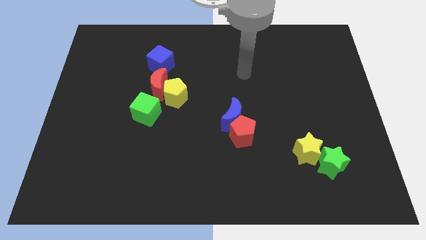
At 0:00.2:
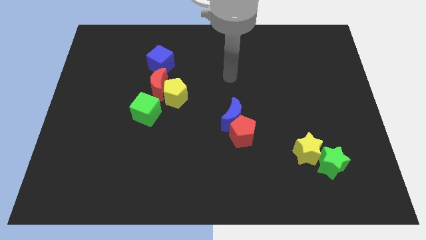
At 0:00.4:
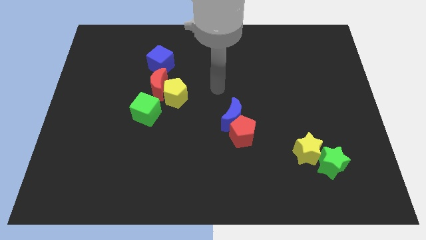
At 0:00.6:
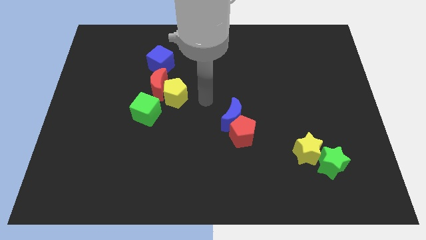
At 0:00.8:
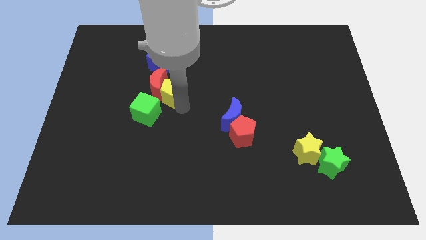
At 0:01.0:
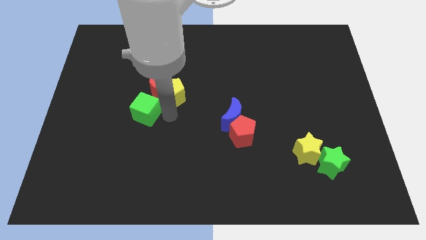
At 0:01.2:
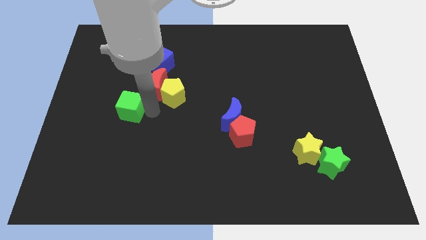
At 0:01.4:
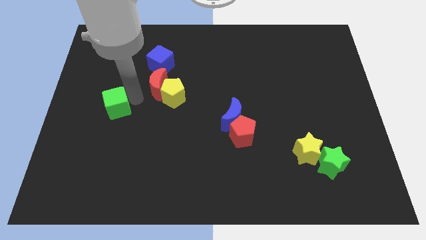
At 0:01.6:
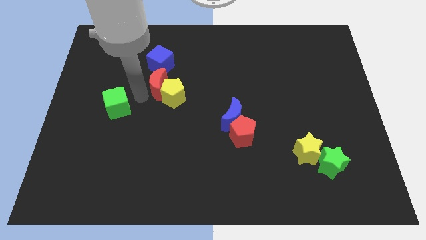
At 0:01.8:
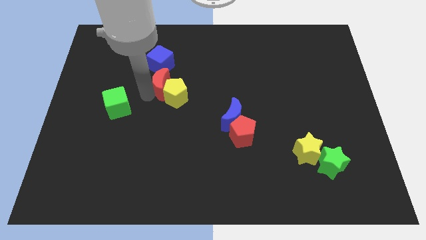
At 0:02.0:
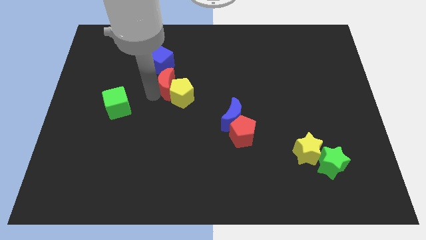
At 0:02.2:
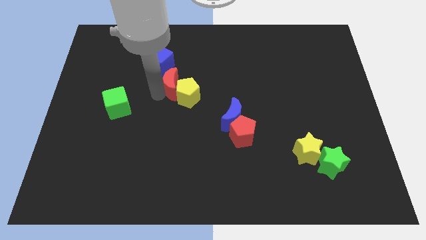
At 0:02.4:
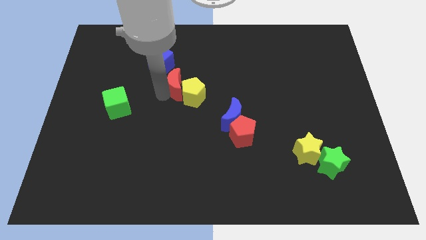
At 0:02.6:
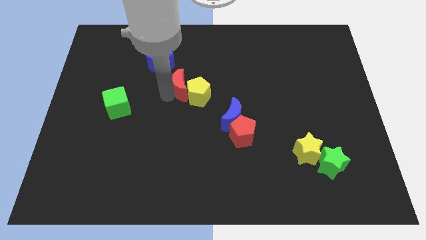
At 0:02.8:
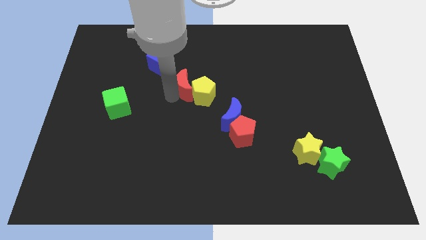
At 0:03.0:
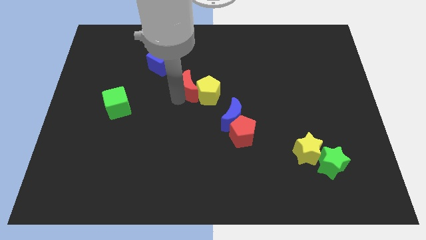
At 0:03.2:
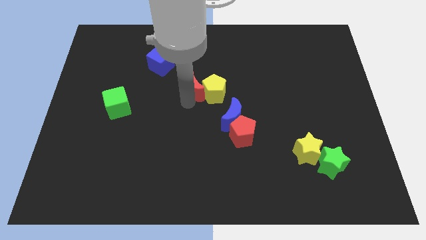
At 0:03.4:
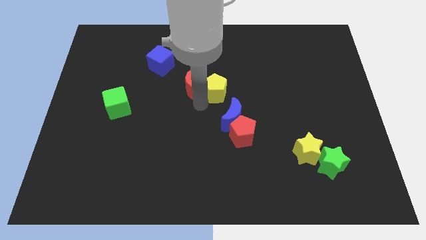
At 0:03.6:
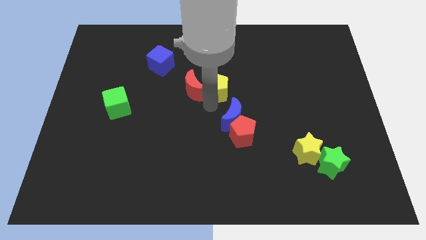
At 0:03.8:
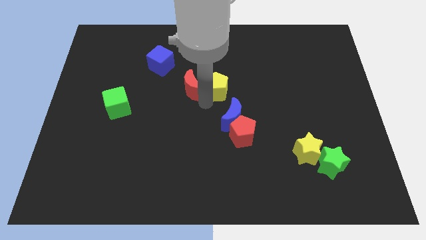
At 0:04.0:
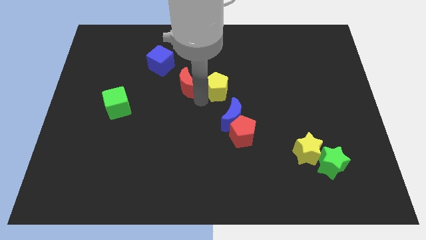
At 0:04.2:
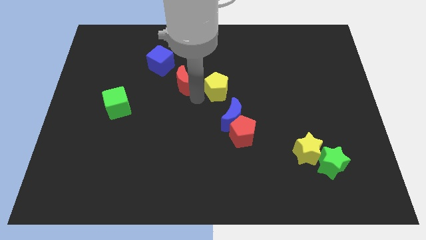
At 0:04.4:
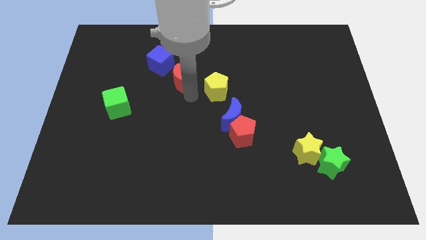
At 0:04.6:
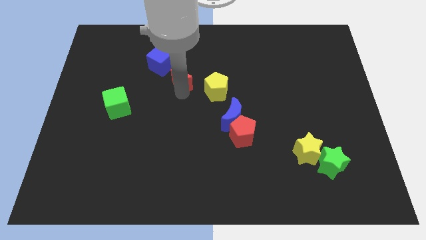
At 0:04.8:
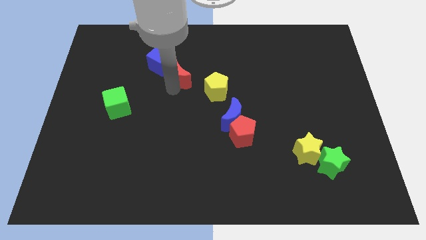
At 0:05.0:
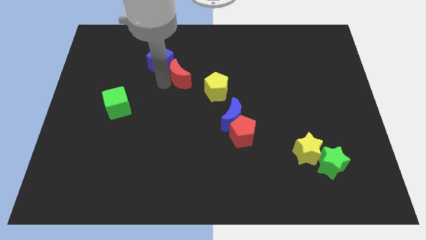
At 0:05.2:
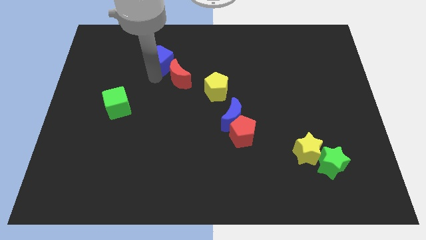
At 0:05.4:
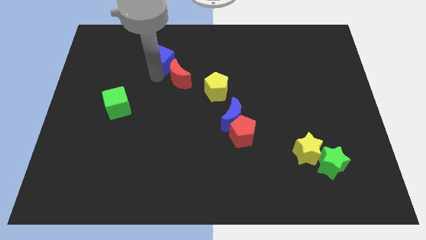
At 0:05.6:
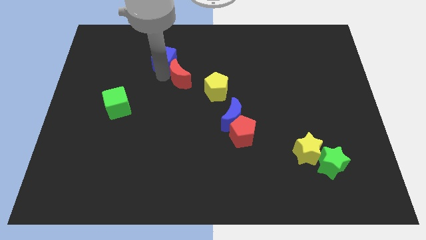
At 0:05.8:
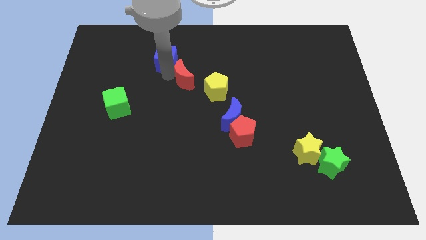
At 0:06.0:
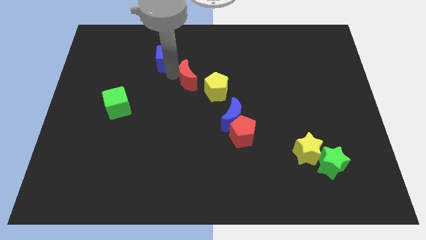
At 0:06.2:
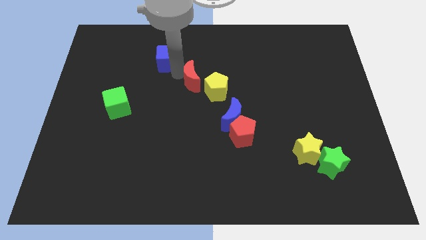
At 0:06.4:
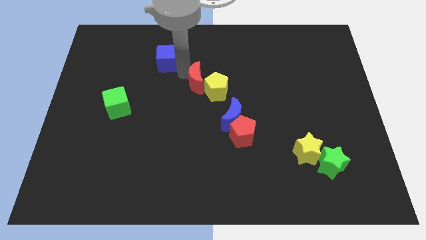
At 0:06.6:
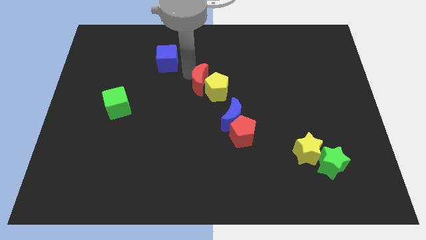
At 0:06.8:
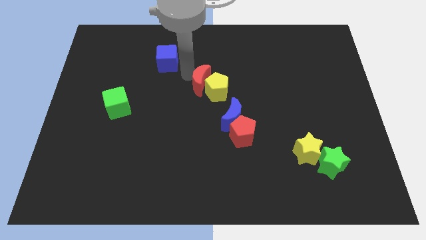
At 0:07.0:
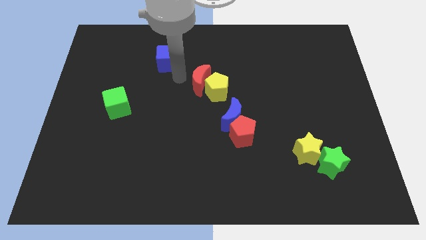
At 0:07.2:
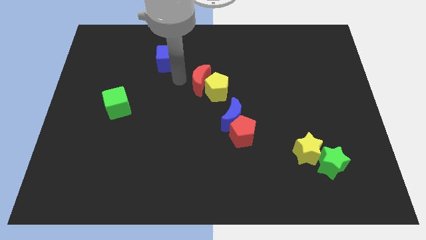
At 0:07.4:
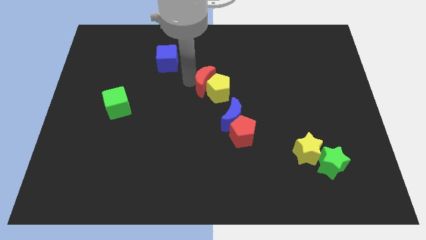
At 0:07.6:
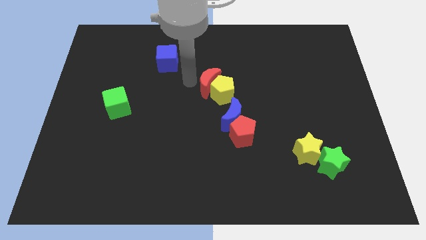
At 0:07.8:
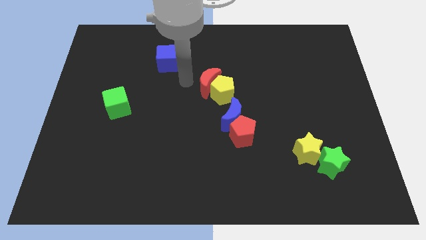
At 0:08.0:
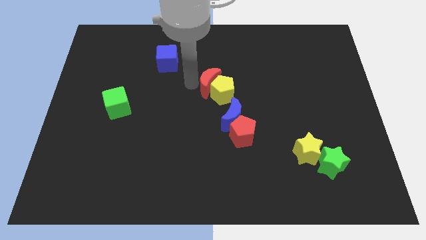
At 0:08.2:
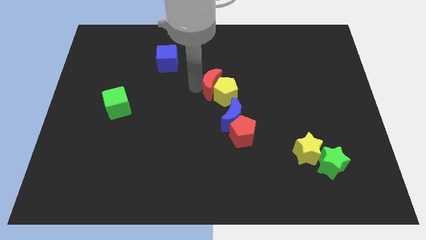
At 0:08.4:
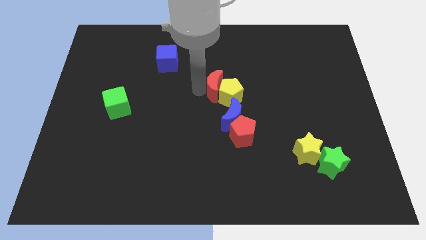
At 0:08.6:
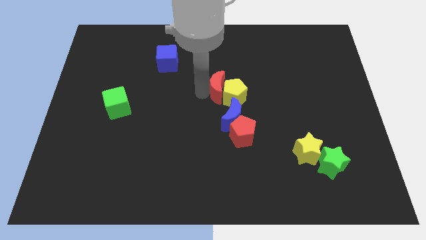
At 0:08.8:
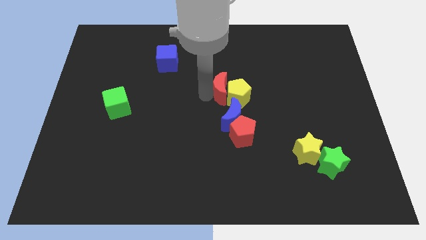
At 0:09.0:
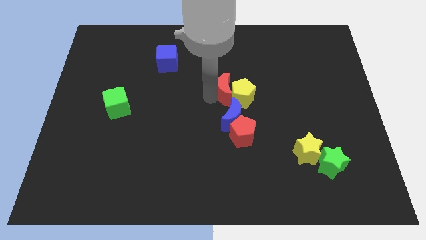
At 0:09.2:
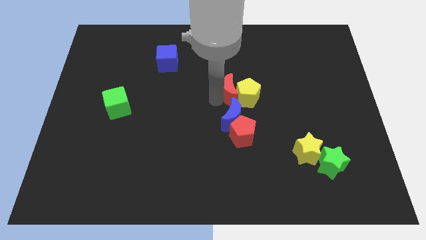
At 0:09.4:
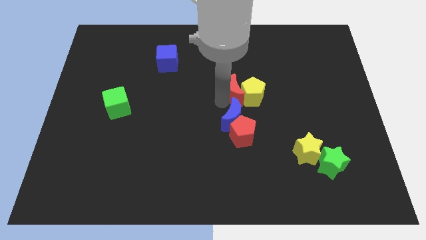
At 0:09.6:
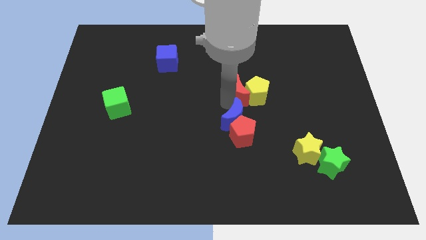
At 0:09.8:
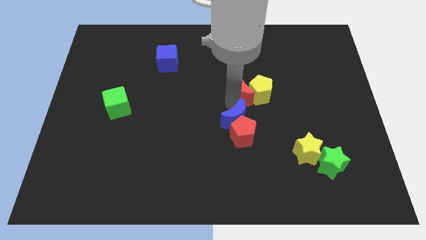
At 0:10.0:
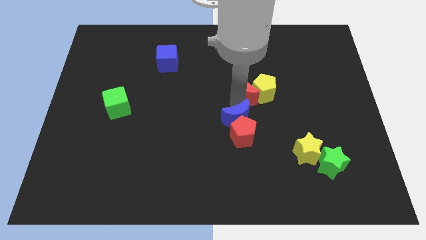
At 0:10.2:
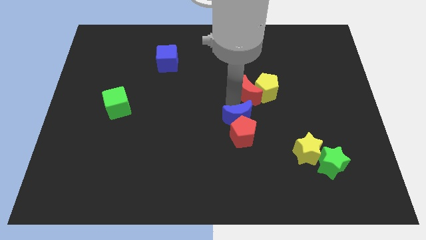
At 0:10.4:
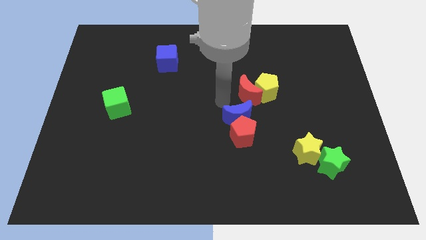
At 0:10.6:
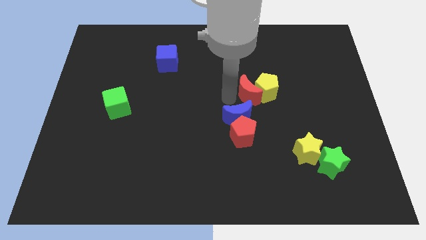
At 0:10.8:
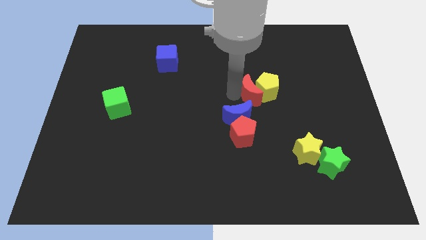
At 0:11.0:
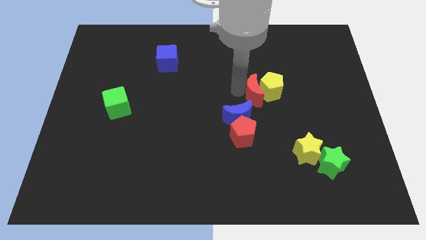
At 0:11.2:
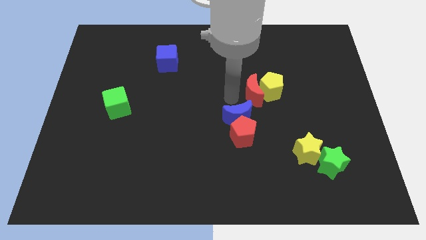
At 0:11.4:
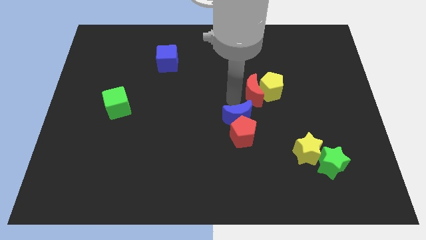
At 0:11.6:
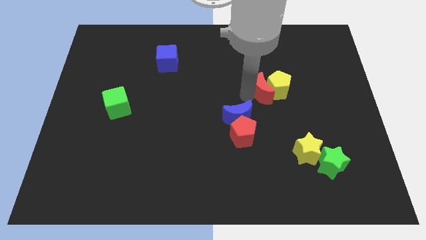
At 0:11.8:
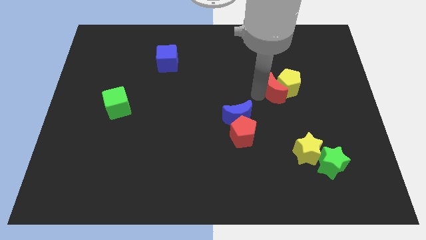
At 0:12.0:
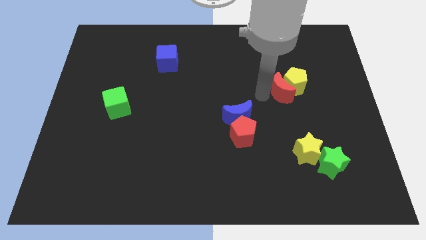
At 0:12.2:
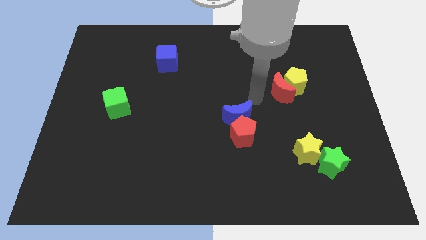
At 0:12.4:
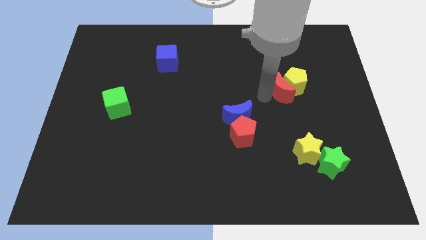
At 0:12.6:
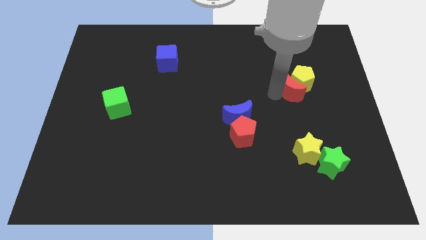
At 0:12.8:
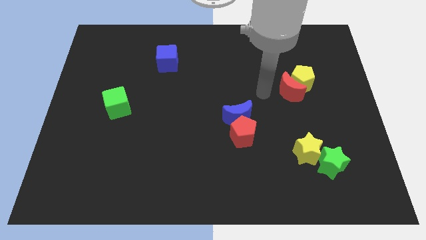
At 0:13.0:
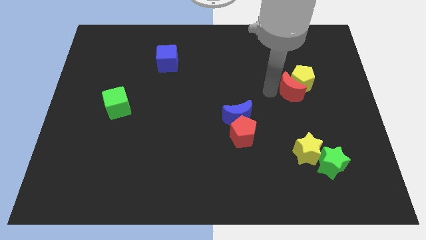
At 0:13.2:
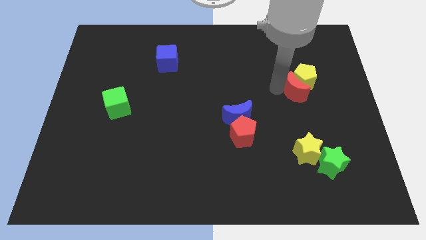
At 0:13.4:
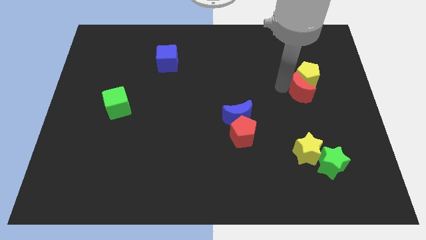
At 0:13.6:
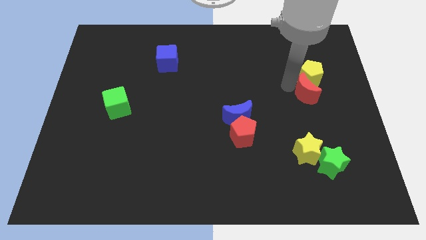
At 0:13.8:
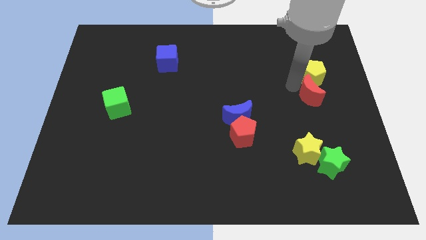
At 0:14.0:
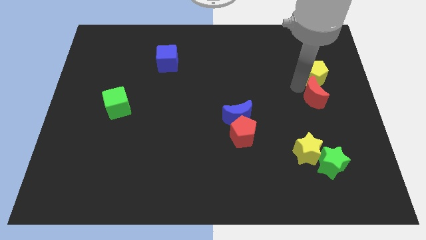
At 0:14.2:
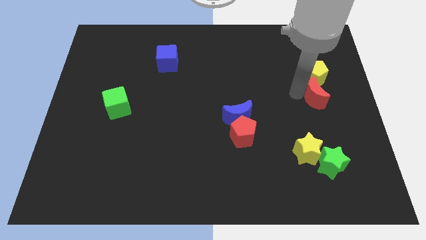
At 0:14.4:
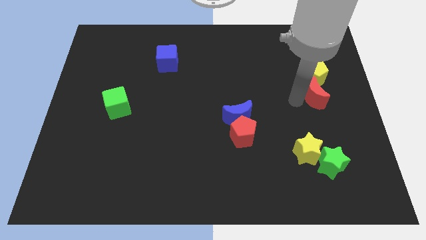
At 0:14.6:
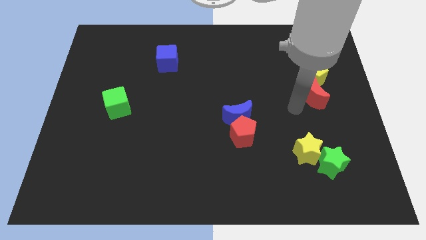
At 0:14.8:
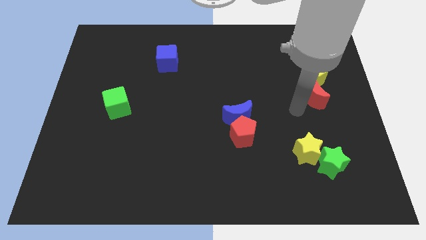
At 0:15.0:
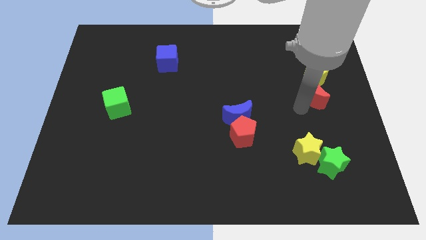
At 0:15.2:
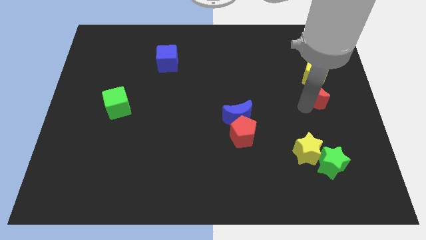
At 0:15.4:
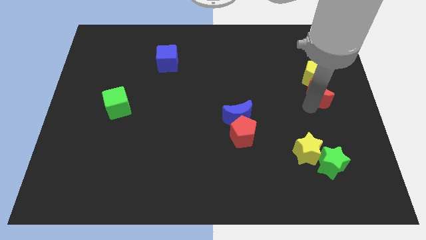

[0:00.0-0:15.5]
put the red moon to the right side
